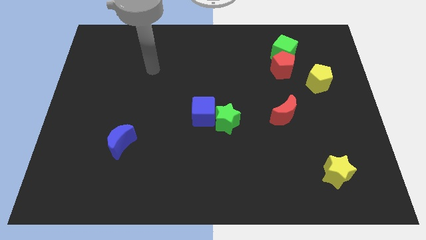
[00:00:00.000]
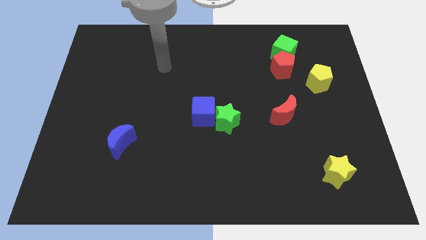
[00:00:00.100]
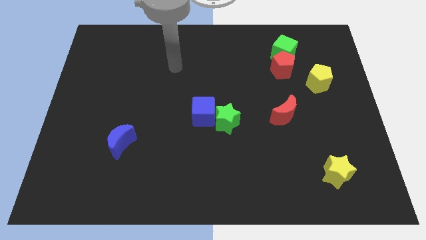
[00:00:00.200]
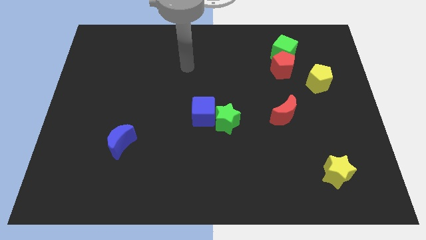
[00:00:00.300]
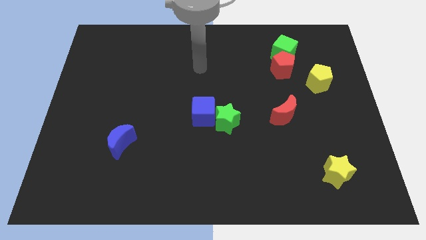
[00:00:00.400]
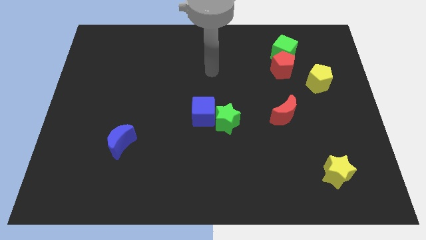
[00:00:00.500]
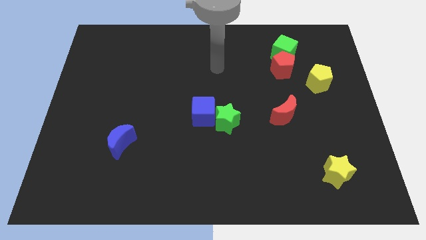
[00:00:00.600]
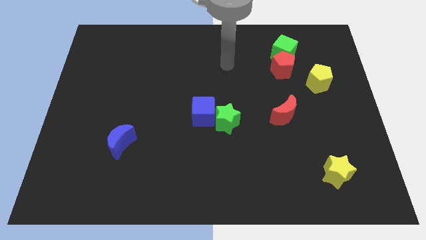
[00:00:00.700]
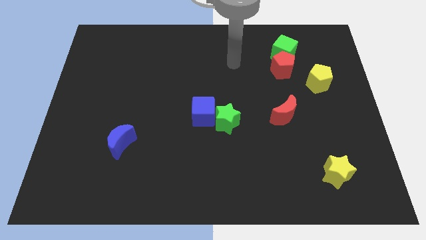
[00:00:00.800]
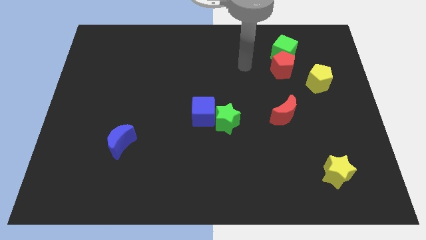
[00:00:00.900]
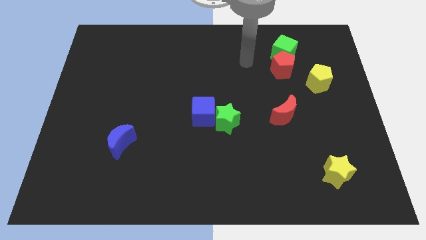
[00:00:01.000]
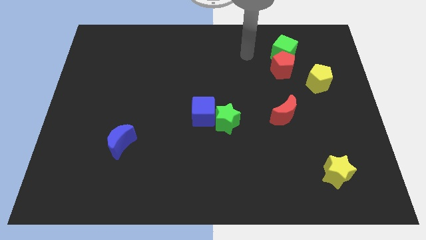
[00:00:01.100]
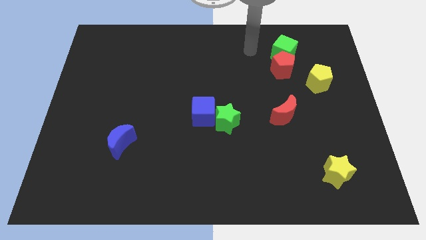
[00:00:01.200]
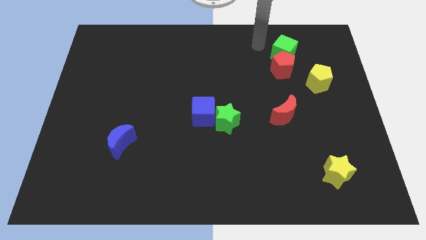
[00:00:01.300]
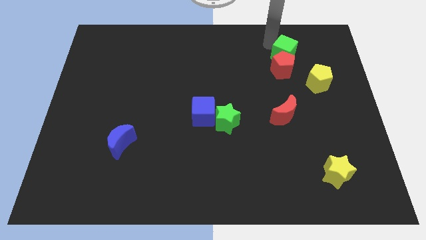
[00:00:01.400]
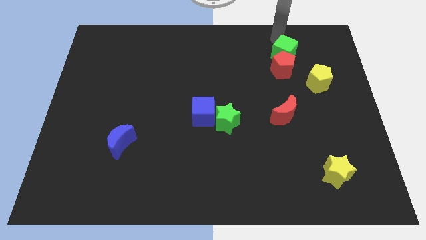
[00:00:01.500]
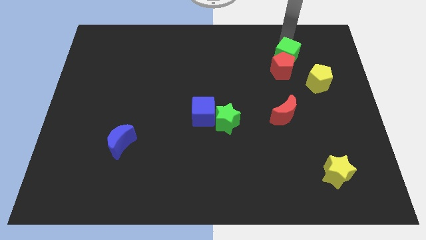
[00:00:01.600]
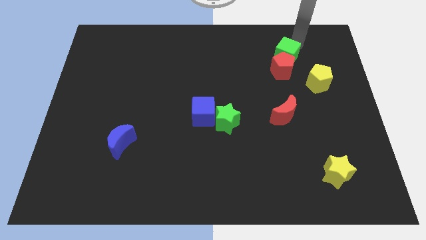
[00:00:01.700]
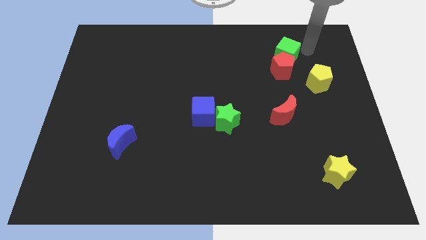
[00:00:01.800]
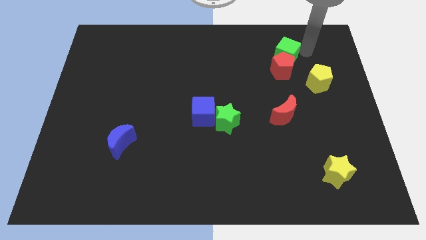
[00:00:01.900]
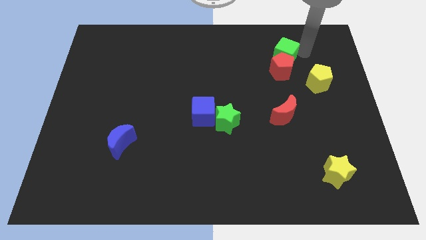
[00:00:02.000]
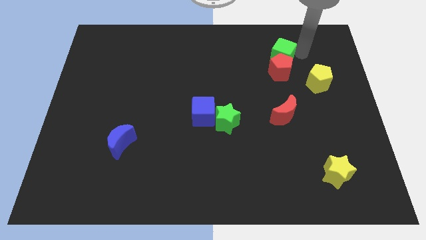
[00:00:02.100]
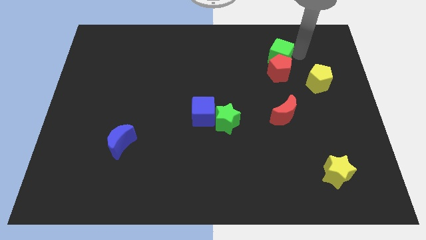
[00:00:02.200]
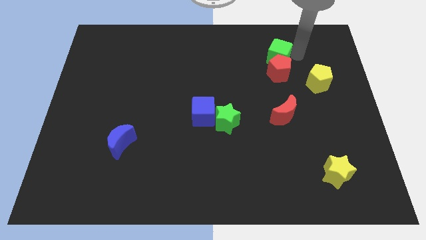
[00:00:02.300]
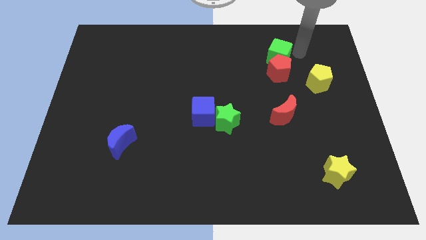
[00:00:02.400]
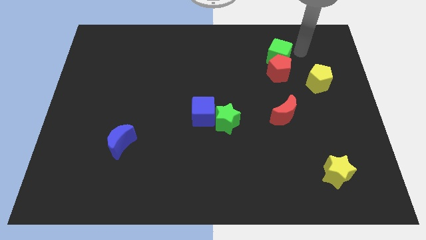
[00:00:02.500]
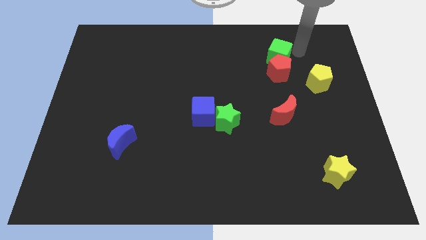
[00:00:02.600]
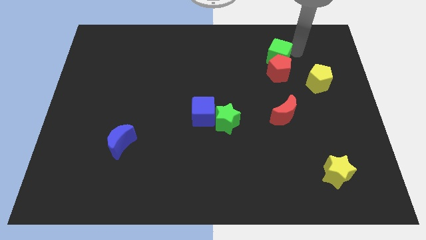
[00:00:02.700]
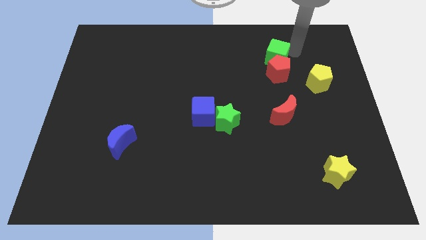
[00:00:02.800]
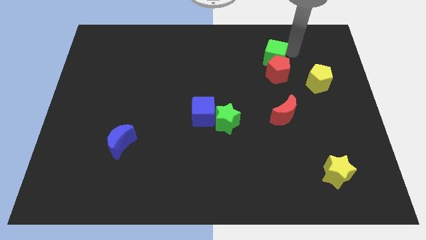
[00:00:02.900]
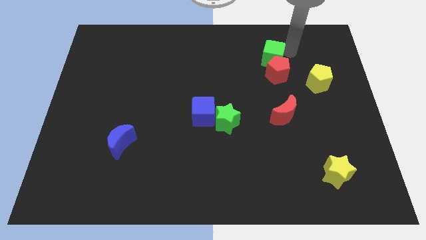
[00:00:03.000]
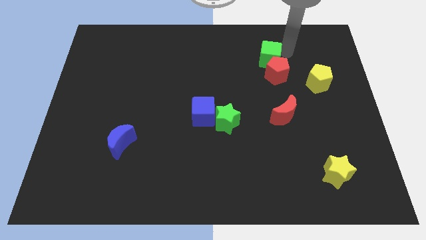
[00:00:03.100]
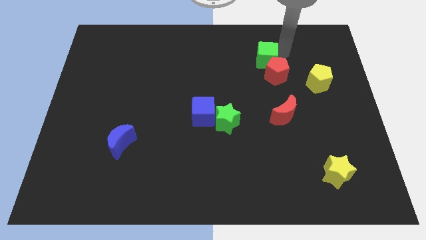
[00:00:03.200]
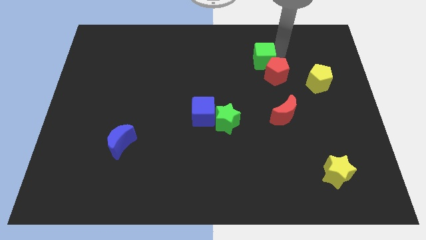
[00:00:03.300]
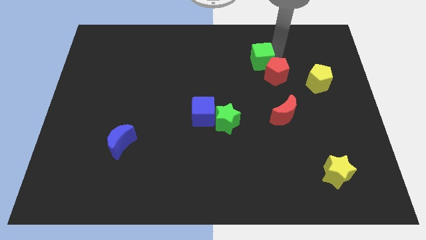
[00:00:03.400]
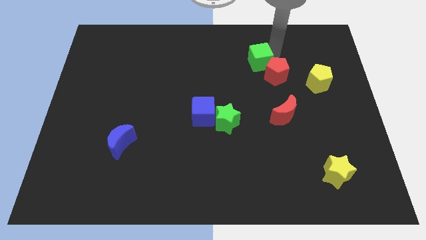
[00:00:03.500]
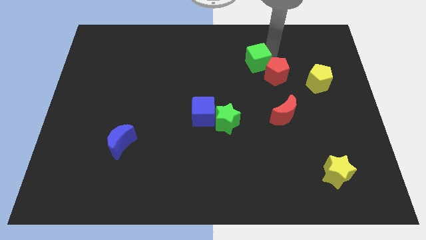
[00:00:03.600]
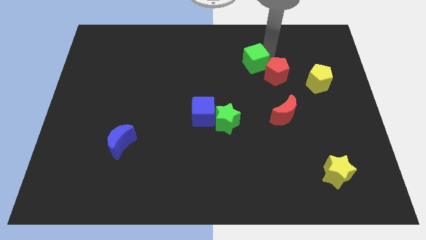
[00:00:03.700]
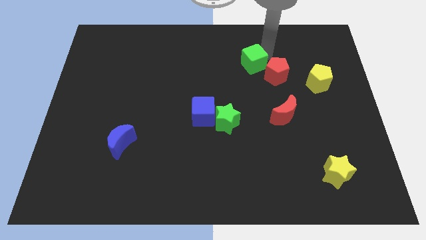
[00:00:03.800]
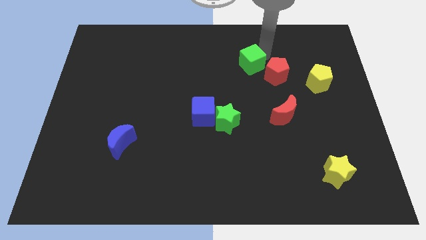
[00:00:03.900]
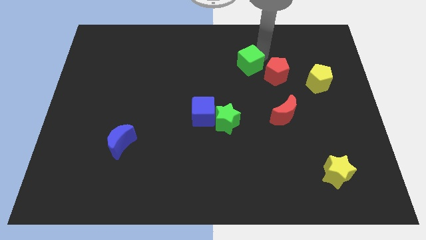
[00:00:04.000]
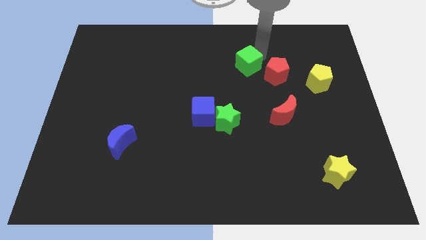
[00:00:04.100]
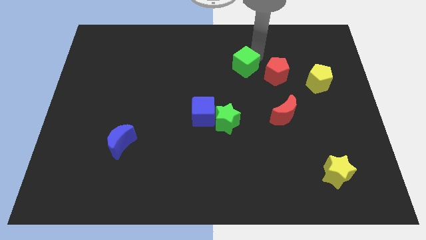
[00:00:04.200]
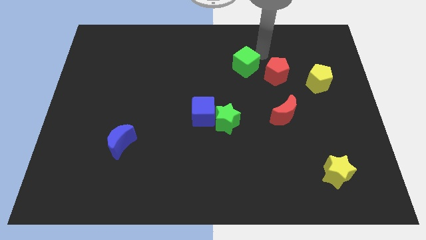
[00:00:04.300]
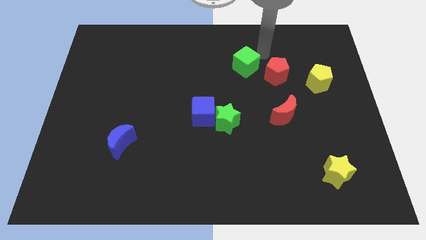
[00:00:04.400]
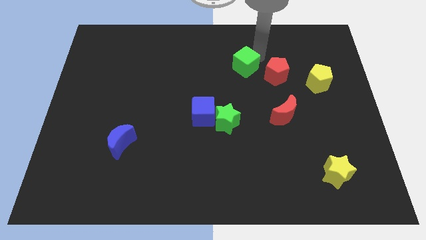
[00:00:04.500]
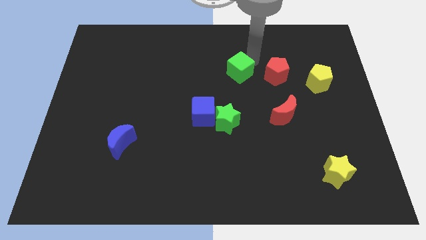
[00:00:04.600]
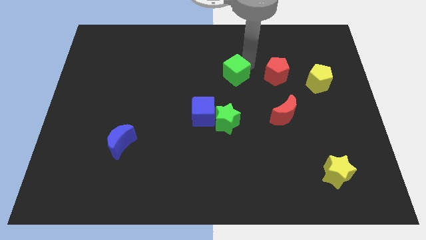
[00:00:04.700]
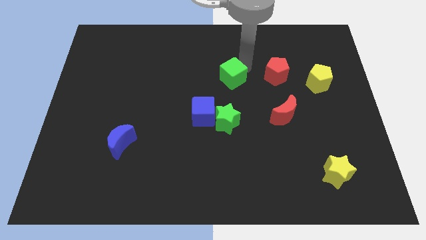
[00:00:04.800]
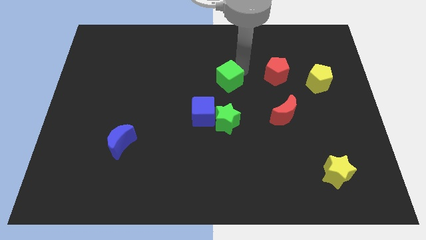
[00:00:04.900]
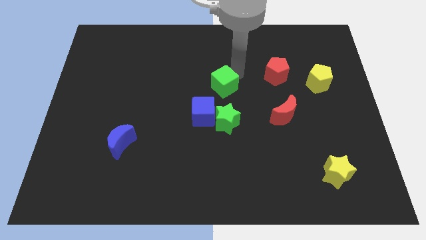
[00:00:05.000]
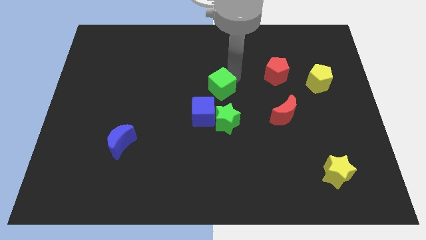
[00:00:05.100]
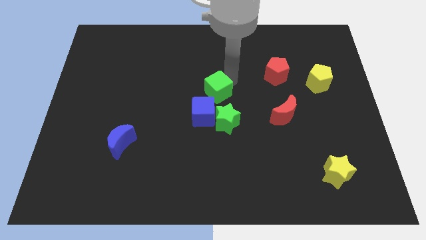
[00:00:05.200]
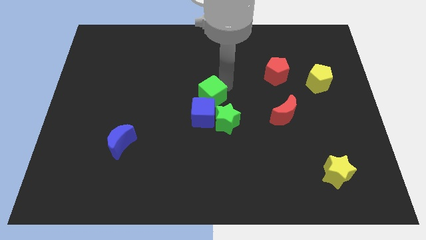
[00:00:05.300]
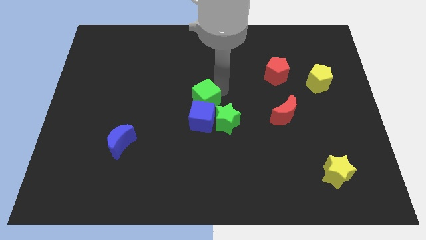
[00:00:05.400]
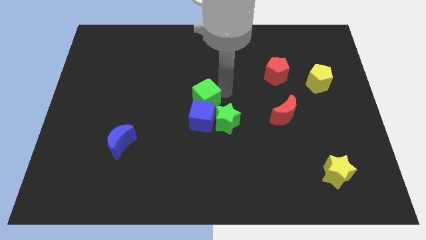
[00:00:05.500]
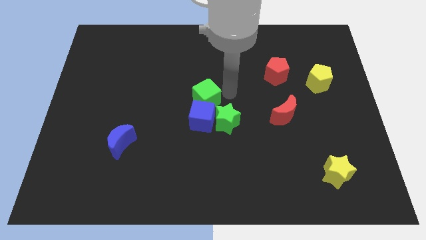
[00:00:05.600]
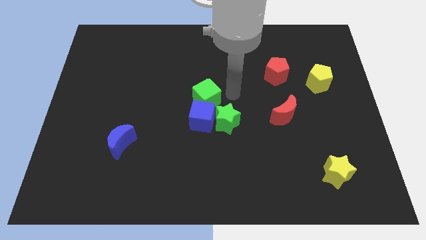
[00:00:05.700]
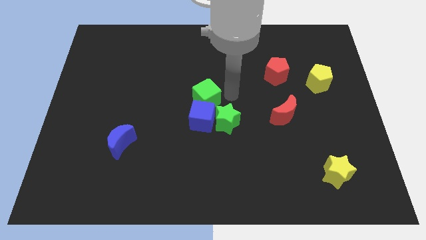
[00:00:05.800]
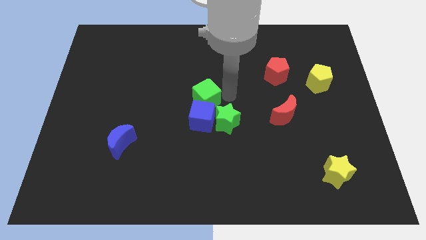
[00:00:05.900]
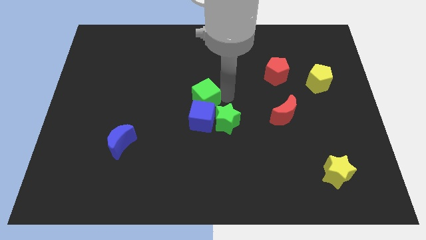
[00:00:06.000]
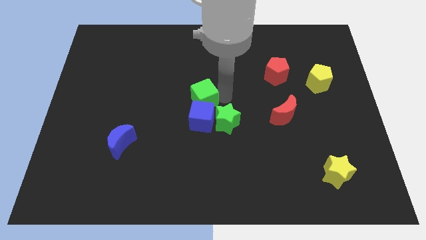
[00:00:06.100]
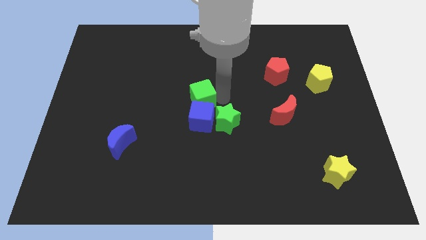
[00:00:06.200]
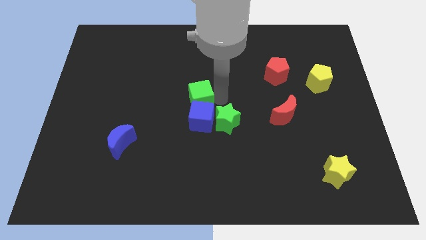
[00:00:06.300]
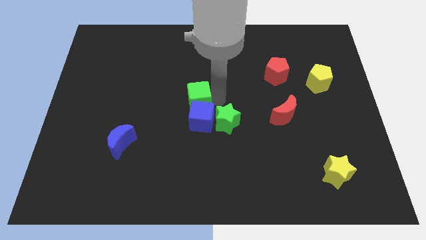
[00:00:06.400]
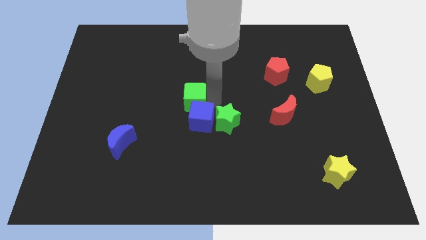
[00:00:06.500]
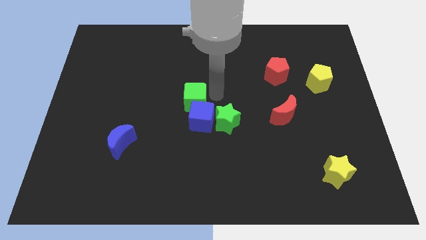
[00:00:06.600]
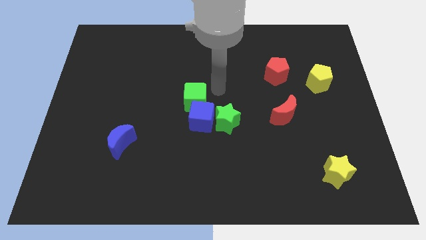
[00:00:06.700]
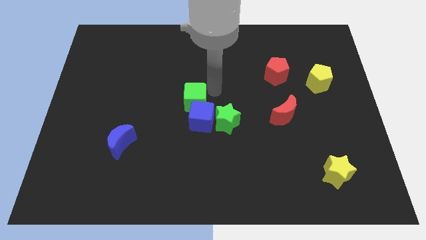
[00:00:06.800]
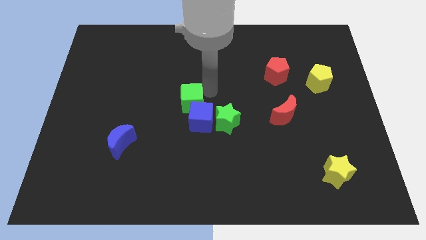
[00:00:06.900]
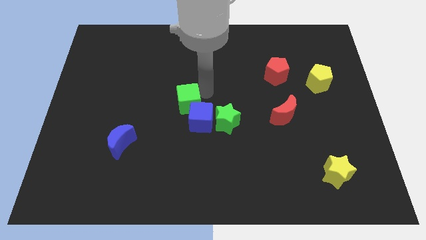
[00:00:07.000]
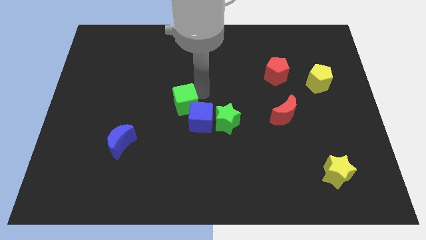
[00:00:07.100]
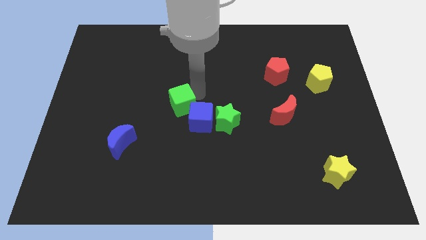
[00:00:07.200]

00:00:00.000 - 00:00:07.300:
push the green cube just left of the blue cube
